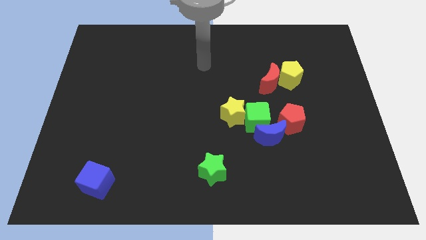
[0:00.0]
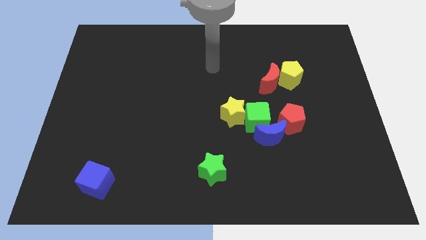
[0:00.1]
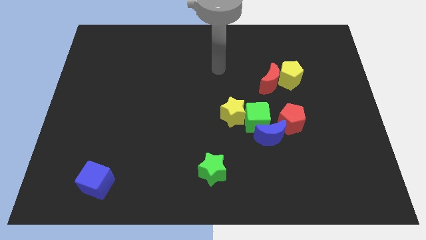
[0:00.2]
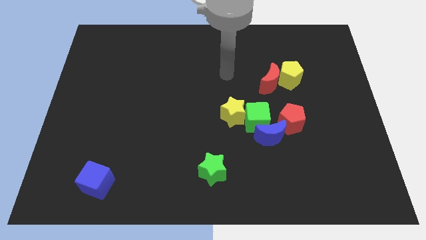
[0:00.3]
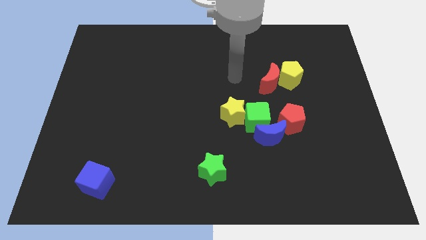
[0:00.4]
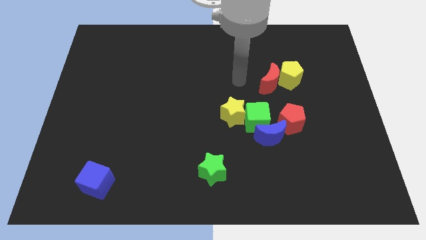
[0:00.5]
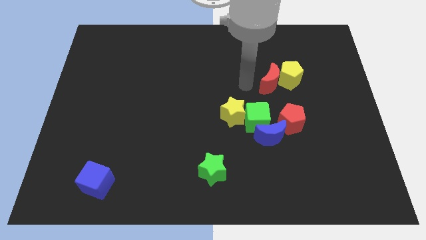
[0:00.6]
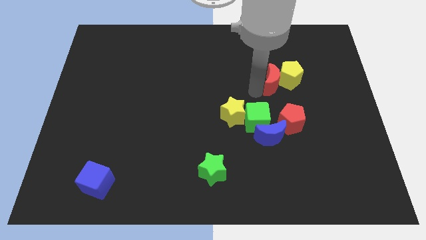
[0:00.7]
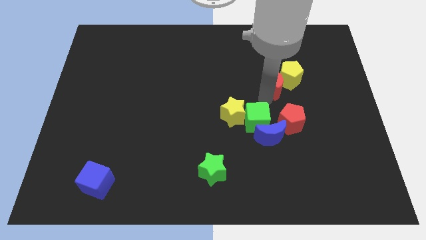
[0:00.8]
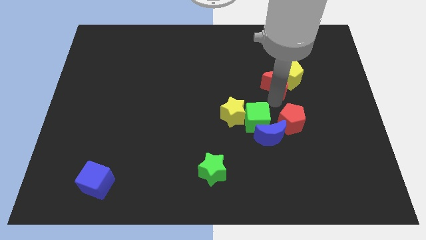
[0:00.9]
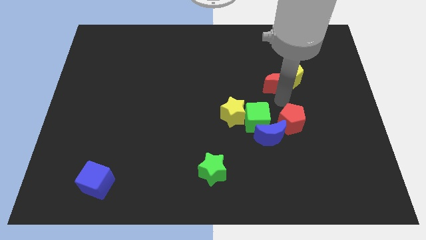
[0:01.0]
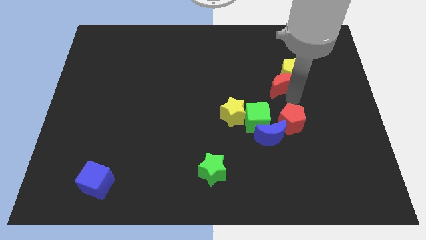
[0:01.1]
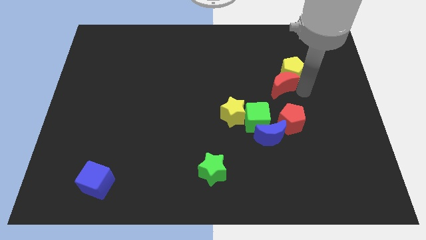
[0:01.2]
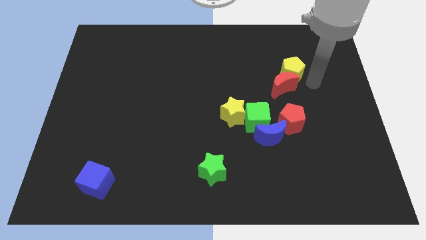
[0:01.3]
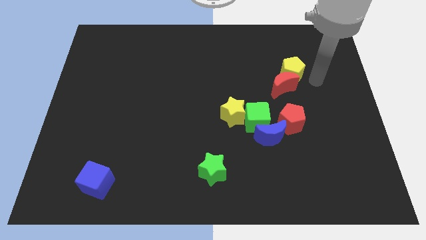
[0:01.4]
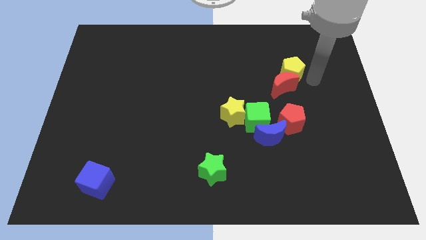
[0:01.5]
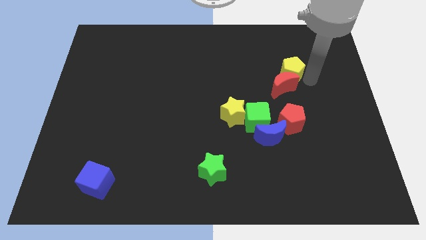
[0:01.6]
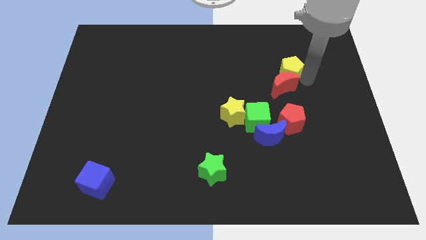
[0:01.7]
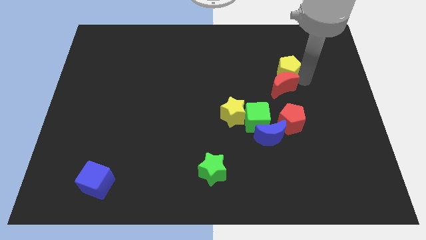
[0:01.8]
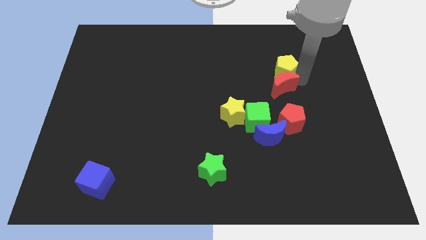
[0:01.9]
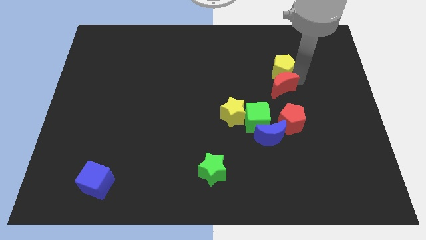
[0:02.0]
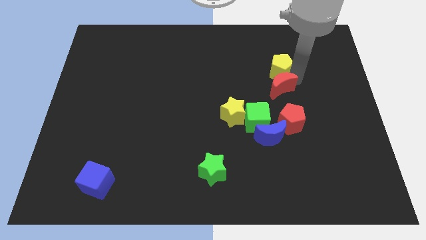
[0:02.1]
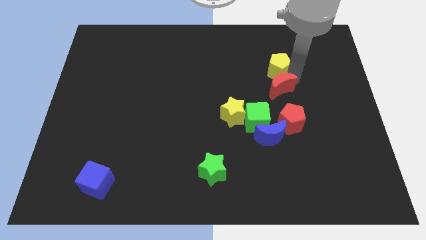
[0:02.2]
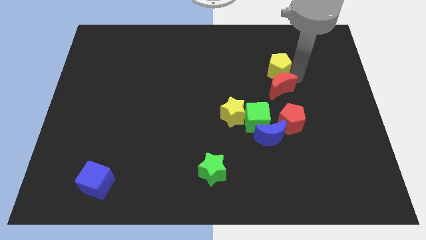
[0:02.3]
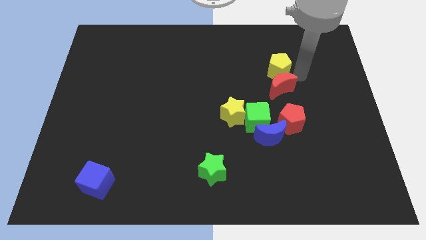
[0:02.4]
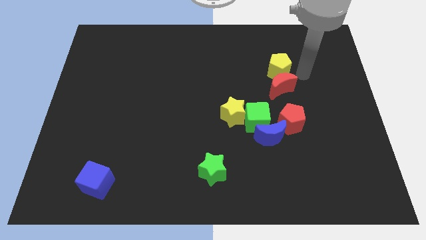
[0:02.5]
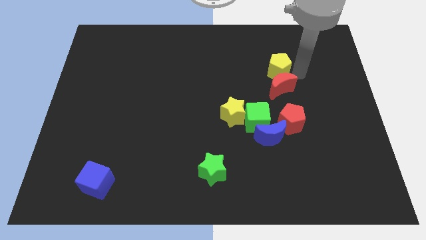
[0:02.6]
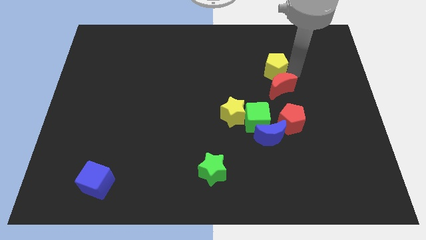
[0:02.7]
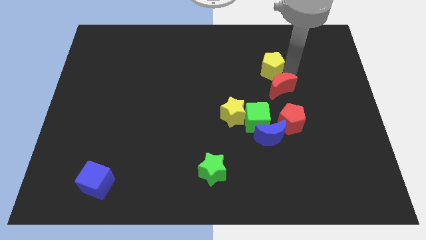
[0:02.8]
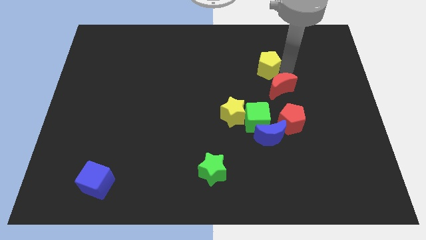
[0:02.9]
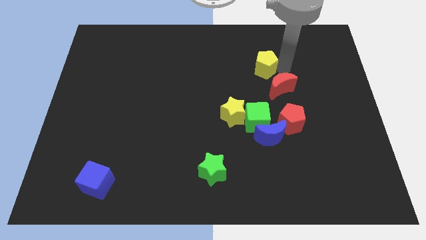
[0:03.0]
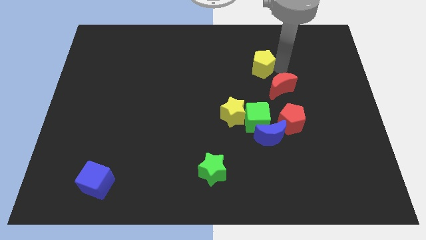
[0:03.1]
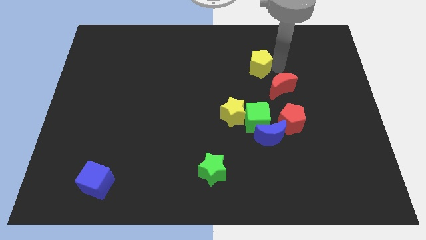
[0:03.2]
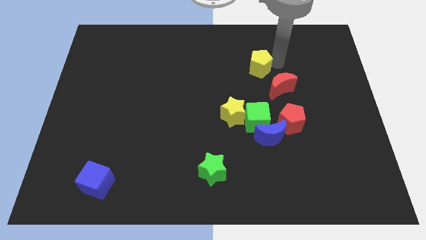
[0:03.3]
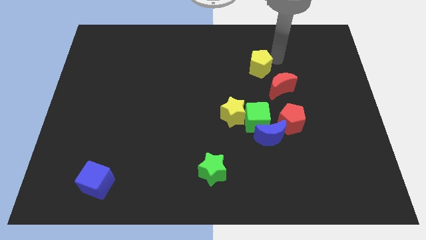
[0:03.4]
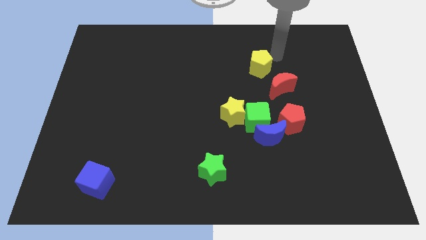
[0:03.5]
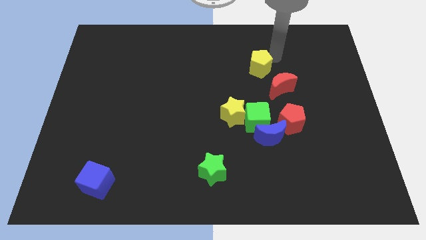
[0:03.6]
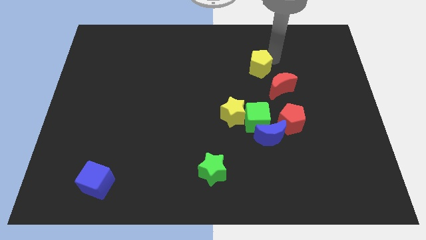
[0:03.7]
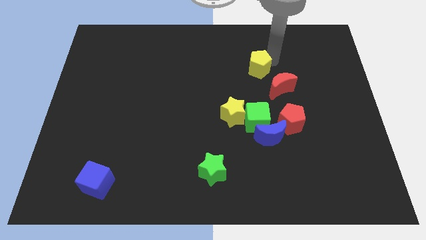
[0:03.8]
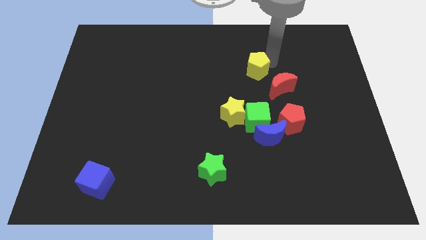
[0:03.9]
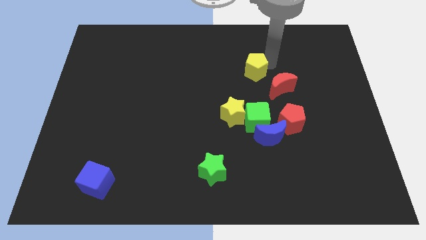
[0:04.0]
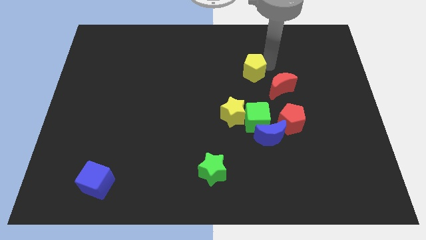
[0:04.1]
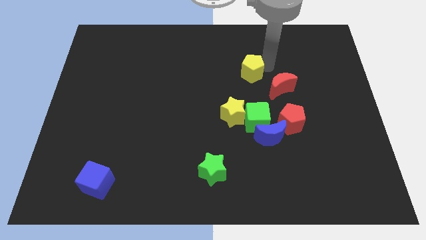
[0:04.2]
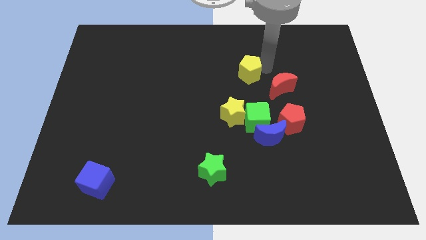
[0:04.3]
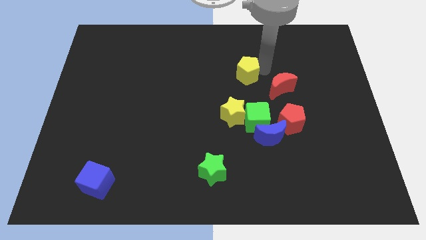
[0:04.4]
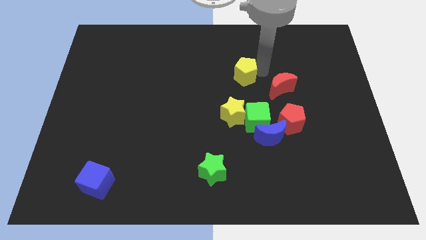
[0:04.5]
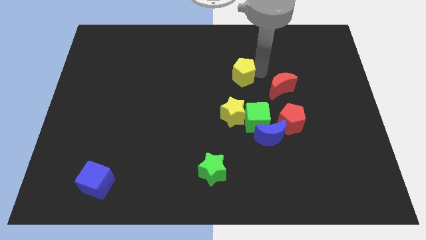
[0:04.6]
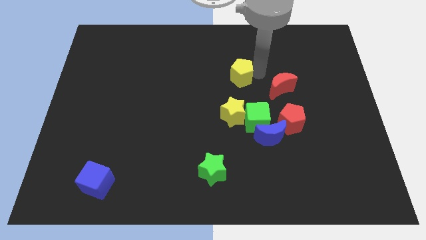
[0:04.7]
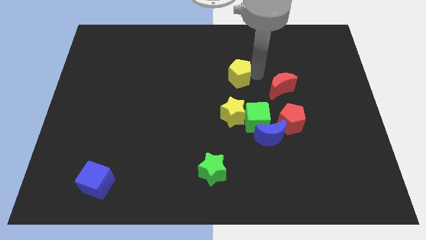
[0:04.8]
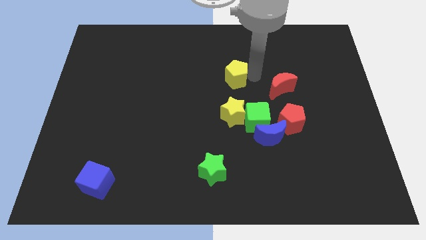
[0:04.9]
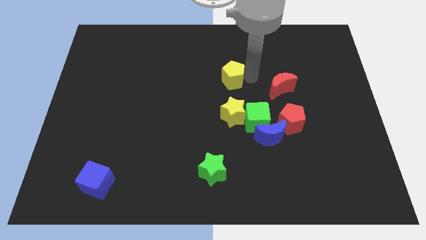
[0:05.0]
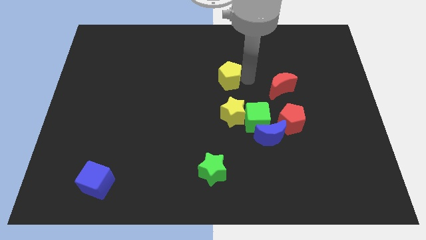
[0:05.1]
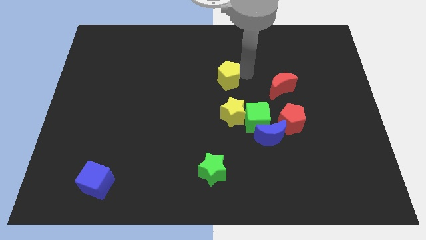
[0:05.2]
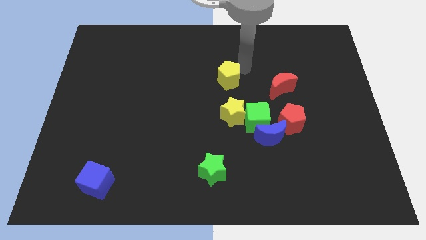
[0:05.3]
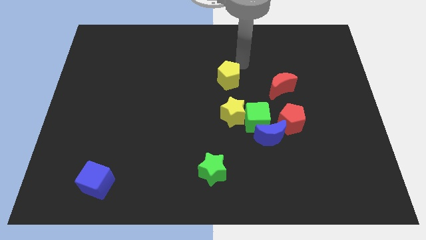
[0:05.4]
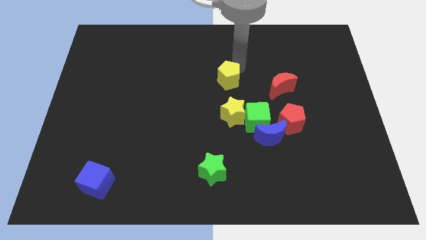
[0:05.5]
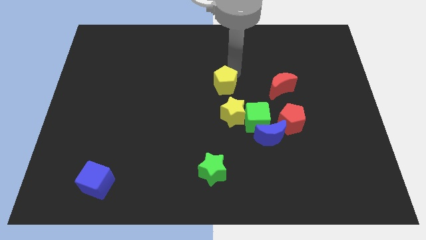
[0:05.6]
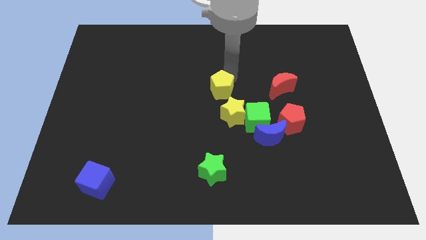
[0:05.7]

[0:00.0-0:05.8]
move the yellow pentagon to the top left of the yellow star

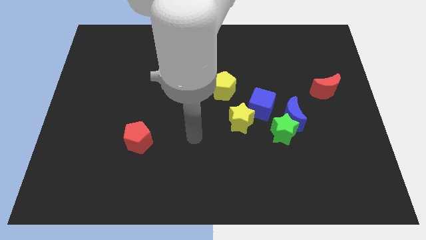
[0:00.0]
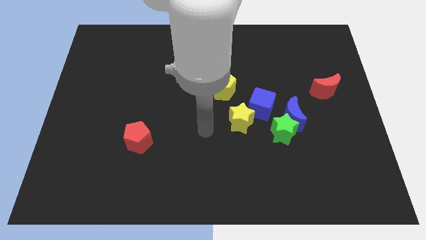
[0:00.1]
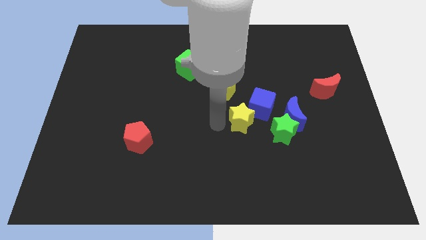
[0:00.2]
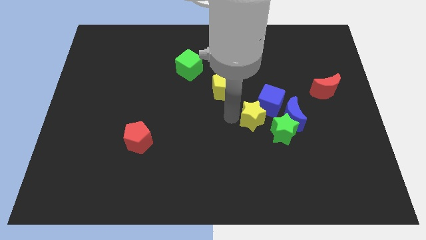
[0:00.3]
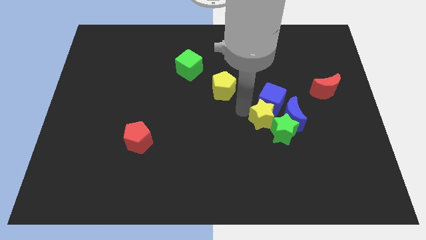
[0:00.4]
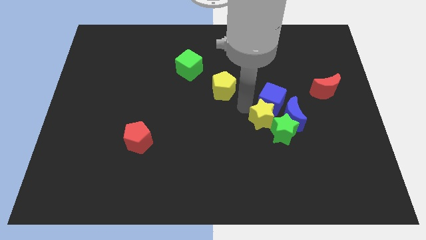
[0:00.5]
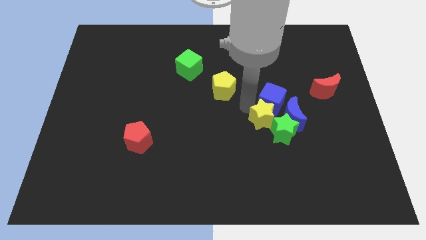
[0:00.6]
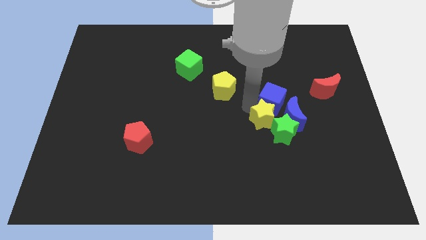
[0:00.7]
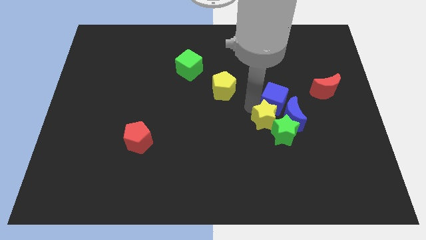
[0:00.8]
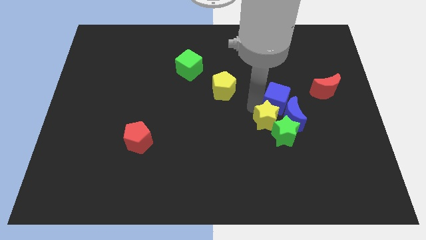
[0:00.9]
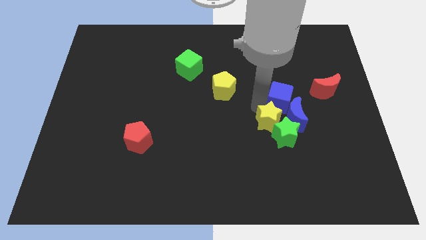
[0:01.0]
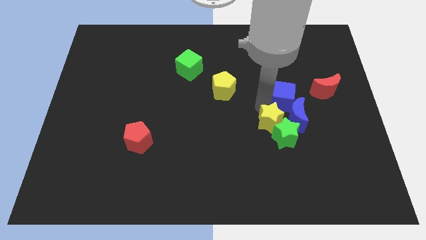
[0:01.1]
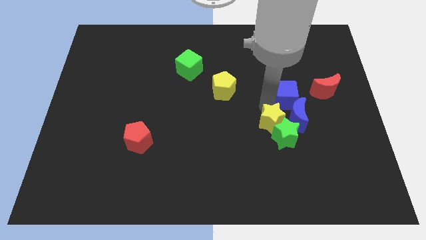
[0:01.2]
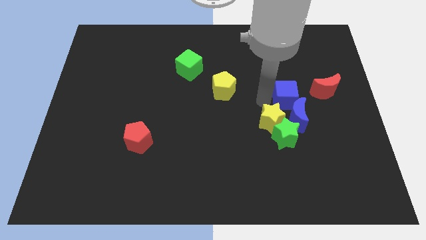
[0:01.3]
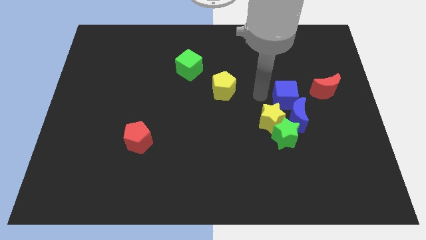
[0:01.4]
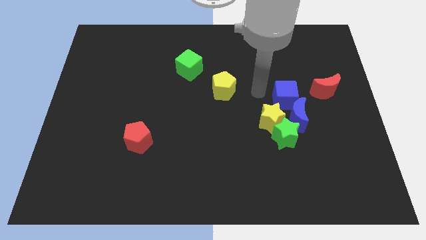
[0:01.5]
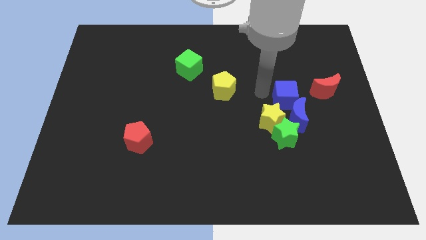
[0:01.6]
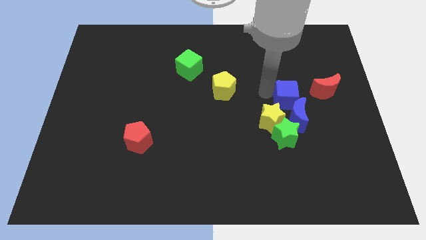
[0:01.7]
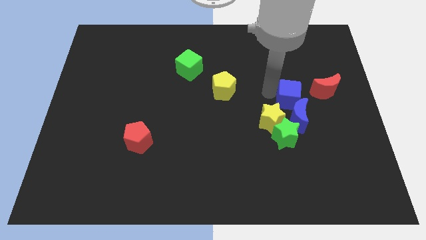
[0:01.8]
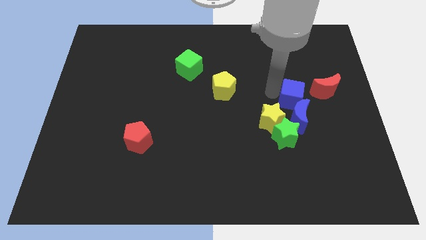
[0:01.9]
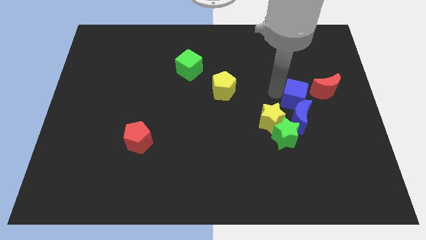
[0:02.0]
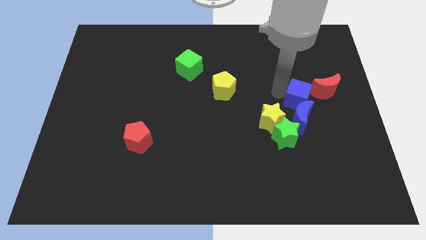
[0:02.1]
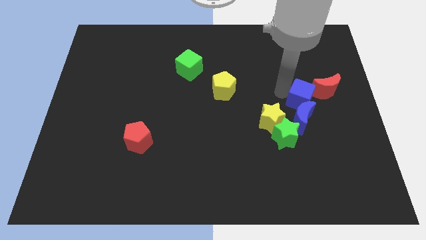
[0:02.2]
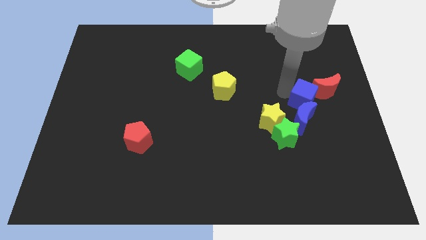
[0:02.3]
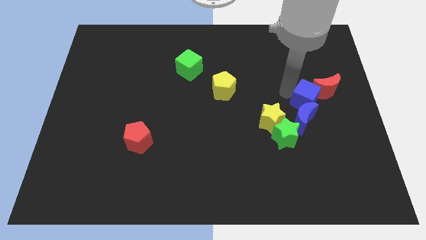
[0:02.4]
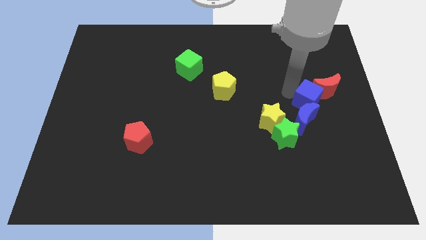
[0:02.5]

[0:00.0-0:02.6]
move the blue cube diagonally up and to the right of the green star
